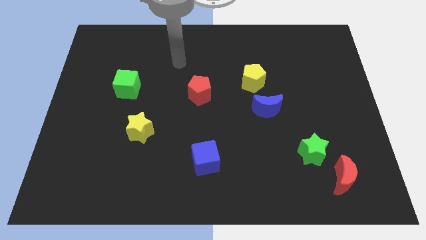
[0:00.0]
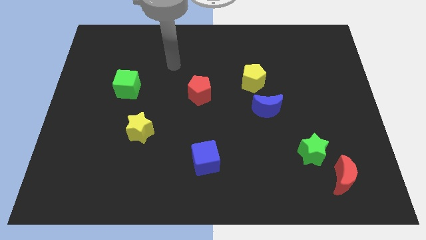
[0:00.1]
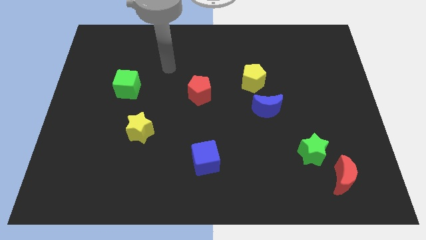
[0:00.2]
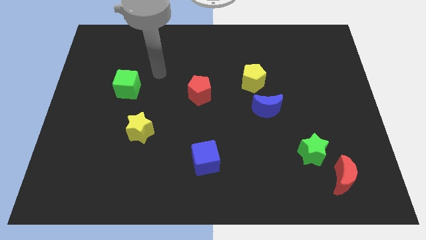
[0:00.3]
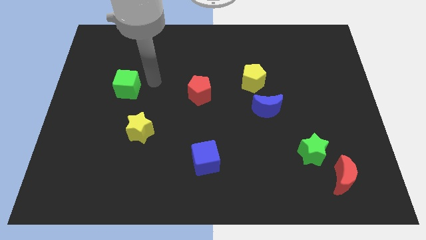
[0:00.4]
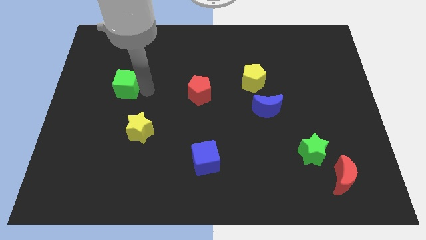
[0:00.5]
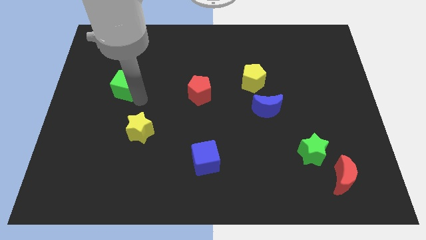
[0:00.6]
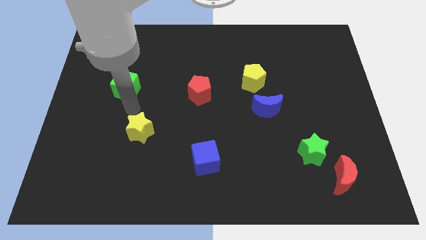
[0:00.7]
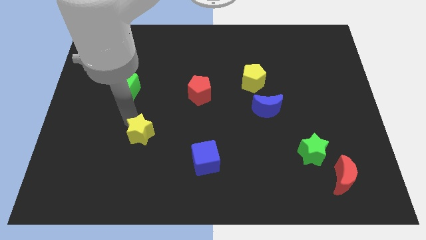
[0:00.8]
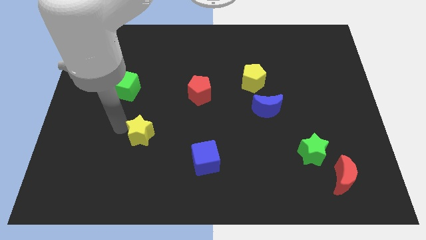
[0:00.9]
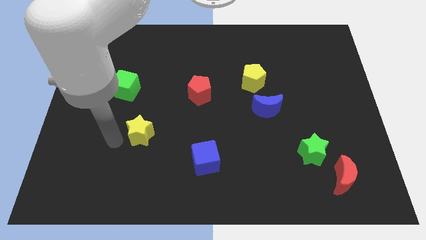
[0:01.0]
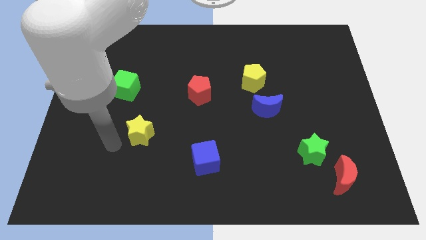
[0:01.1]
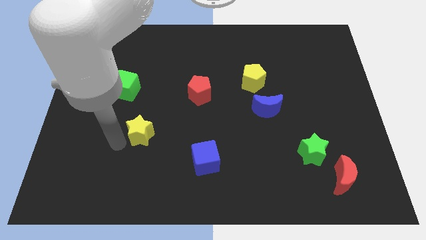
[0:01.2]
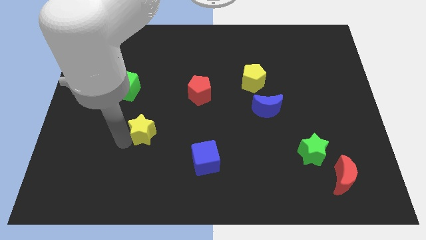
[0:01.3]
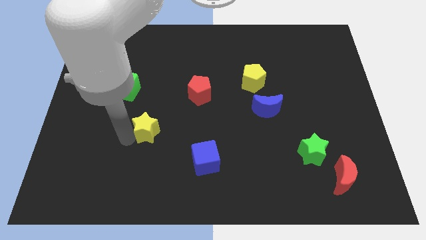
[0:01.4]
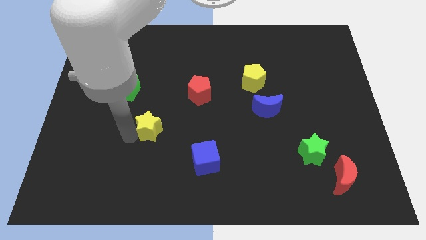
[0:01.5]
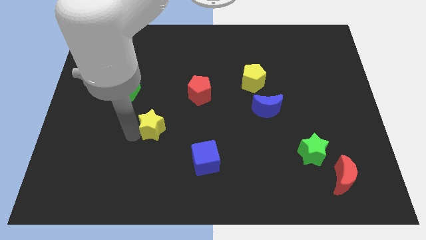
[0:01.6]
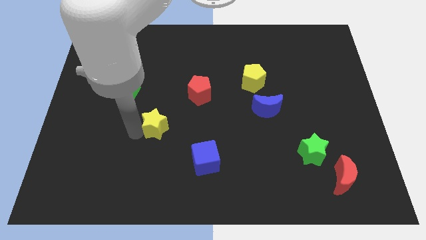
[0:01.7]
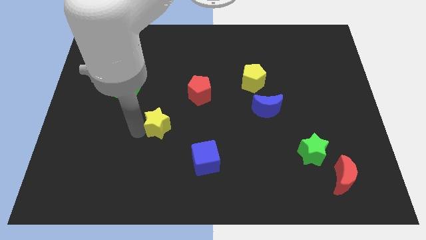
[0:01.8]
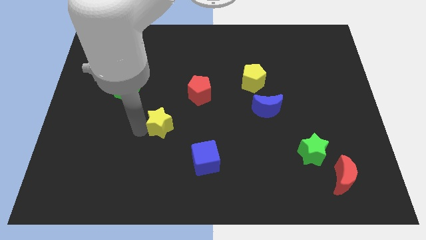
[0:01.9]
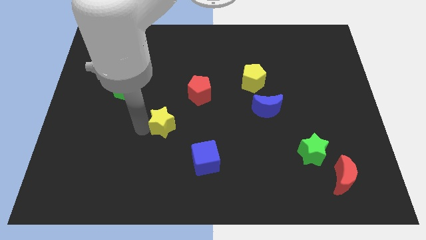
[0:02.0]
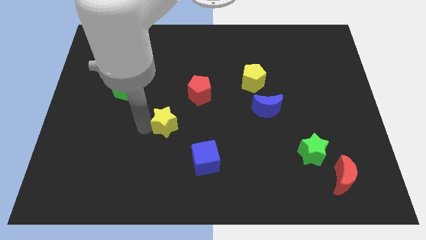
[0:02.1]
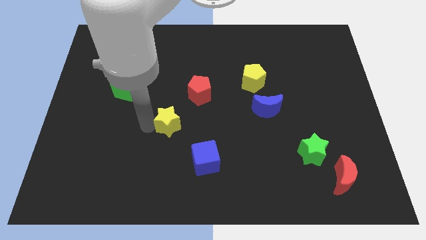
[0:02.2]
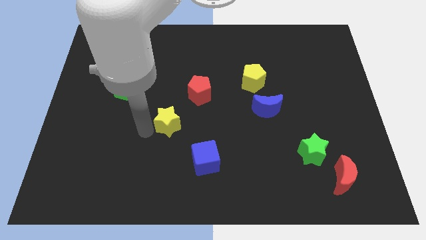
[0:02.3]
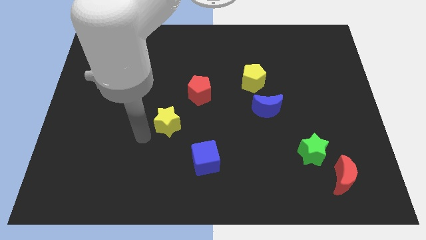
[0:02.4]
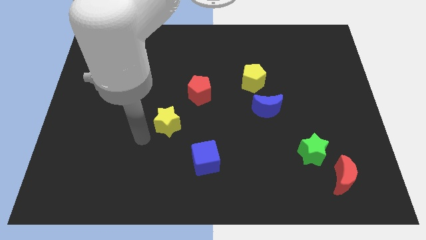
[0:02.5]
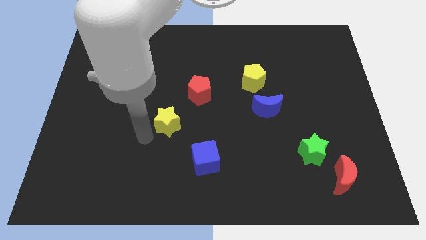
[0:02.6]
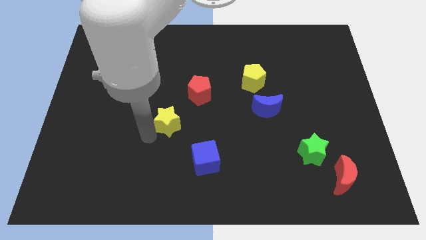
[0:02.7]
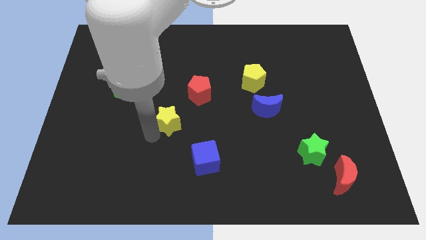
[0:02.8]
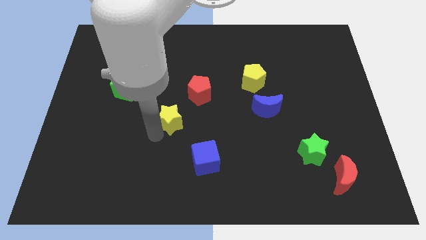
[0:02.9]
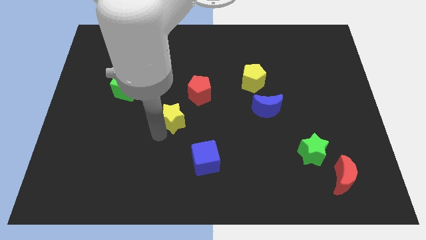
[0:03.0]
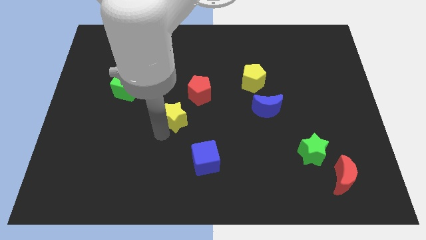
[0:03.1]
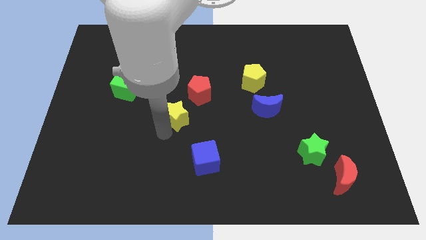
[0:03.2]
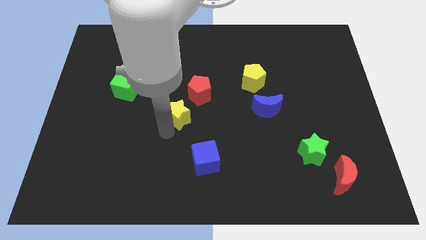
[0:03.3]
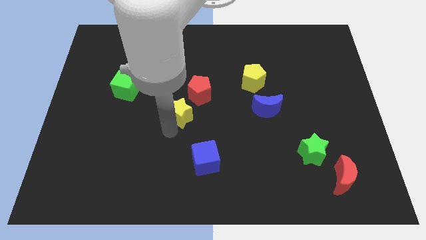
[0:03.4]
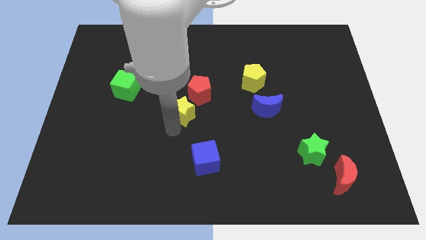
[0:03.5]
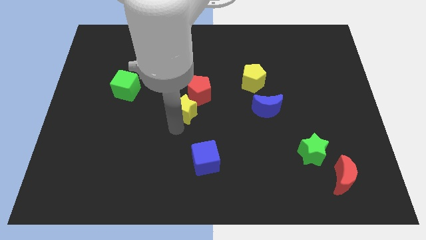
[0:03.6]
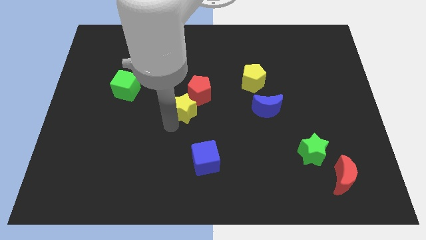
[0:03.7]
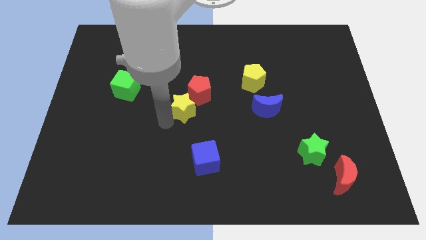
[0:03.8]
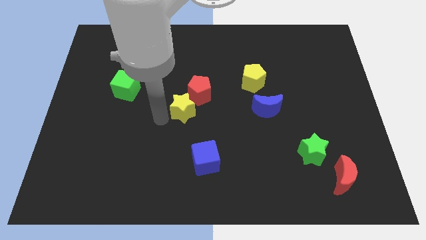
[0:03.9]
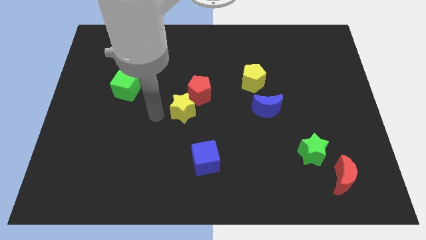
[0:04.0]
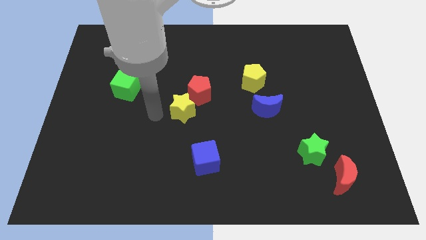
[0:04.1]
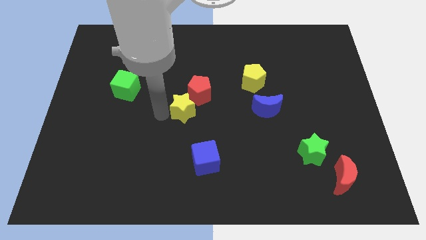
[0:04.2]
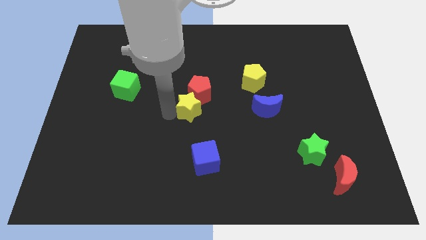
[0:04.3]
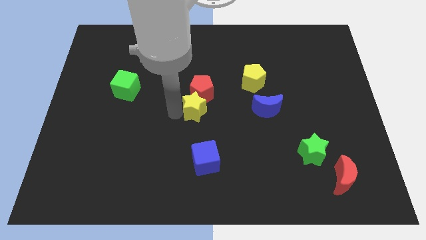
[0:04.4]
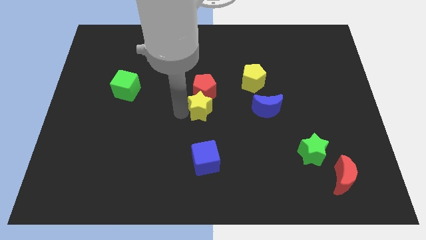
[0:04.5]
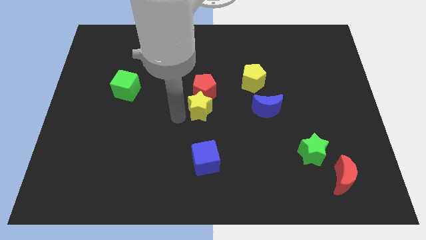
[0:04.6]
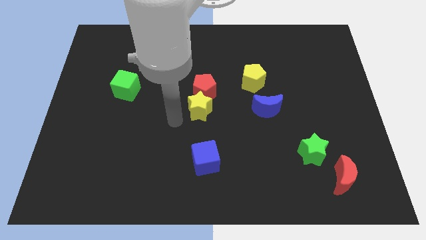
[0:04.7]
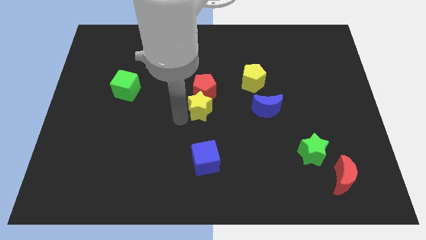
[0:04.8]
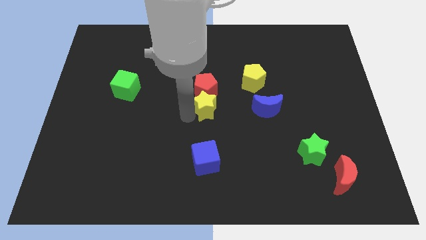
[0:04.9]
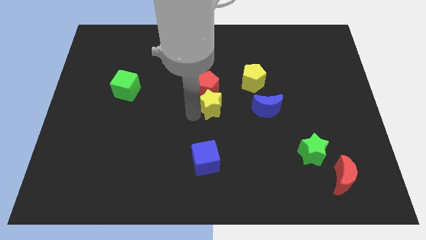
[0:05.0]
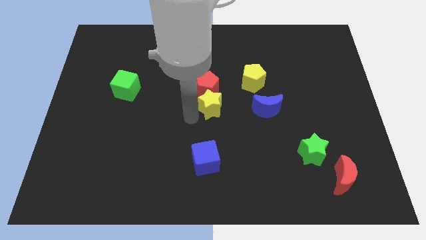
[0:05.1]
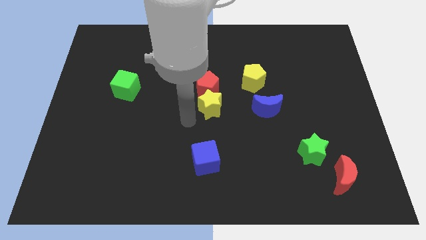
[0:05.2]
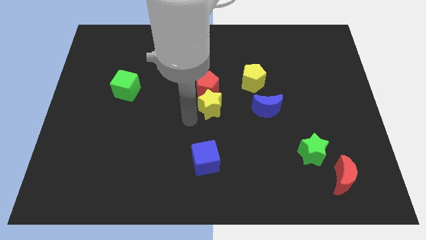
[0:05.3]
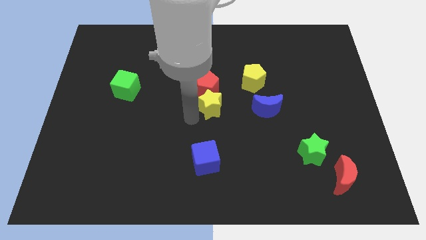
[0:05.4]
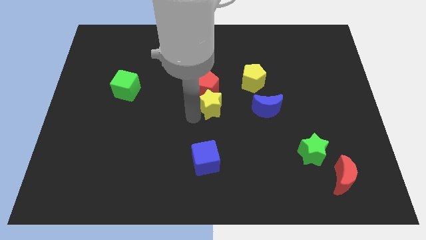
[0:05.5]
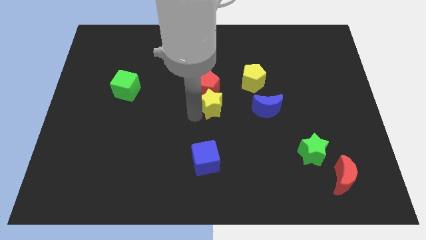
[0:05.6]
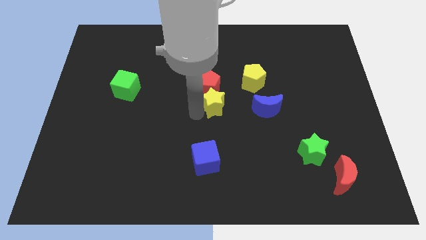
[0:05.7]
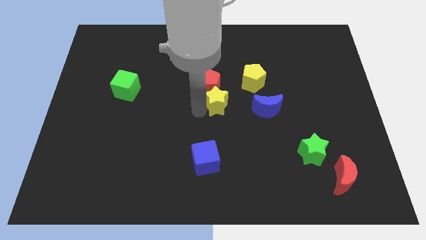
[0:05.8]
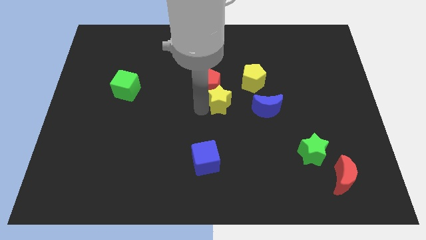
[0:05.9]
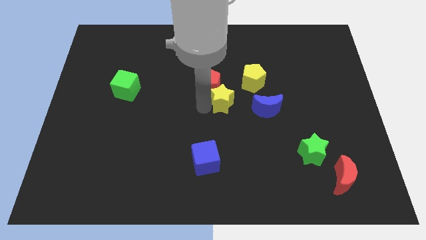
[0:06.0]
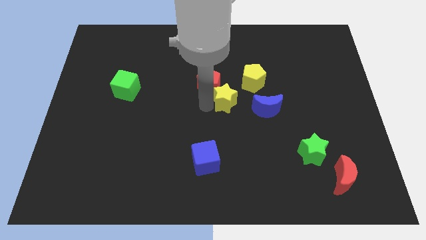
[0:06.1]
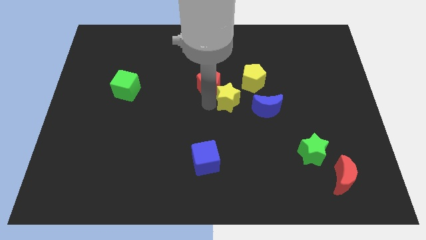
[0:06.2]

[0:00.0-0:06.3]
push the yellow star to the top left of the blue moon
